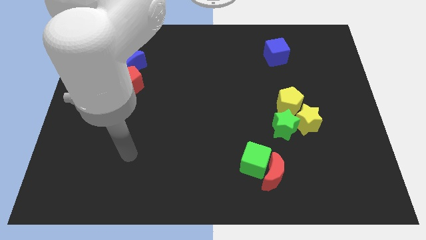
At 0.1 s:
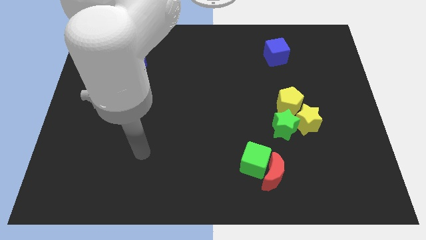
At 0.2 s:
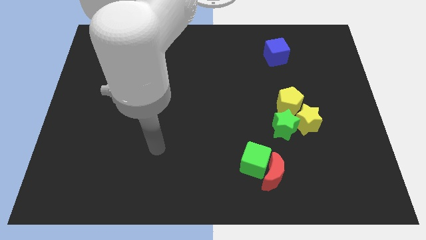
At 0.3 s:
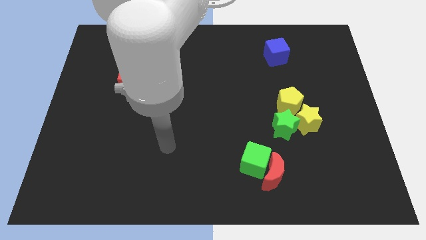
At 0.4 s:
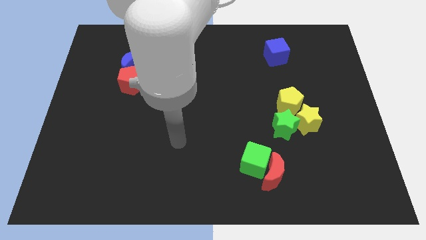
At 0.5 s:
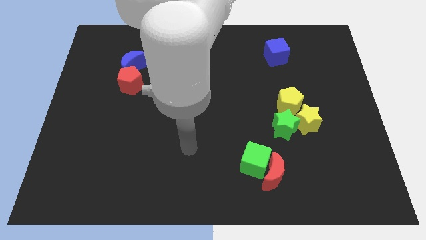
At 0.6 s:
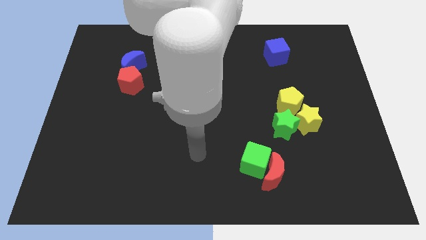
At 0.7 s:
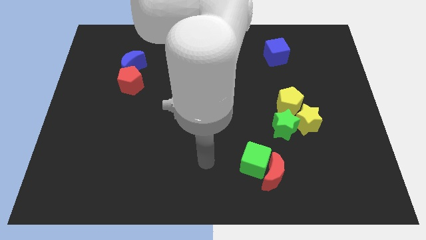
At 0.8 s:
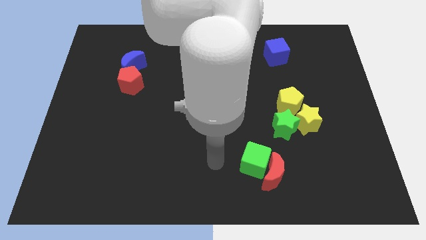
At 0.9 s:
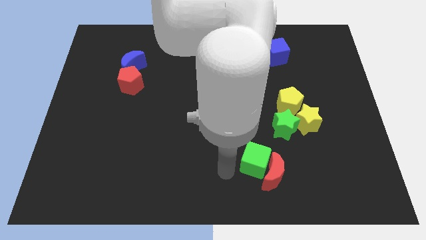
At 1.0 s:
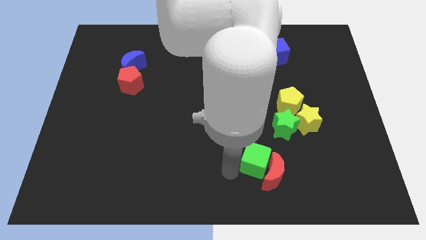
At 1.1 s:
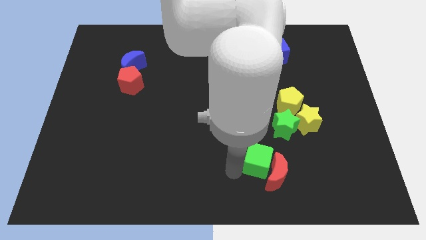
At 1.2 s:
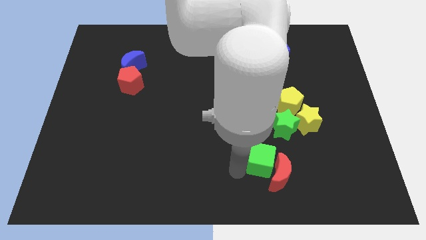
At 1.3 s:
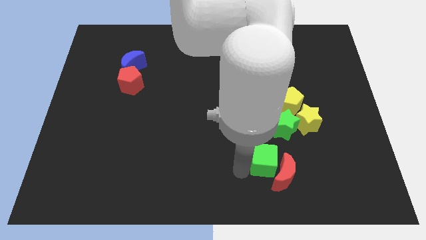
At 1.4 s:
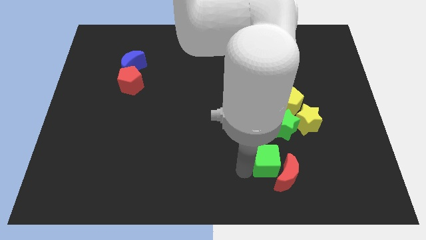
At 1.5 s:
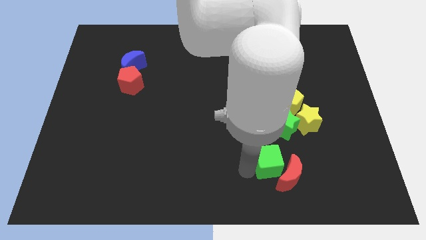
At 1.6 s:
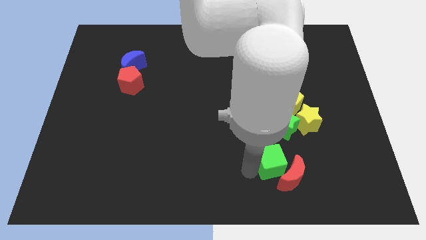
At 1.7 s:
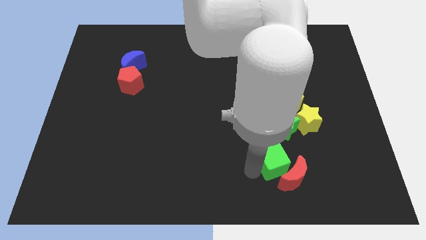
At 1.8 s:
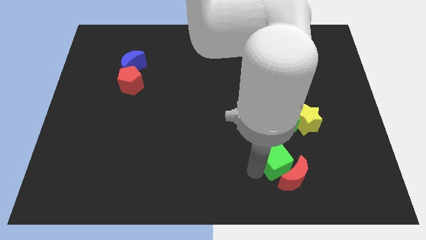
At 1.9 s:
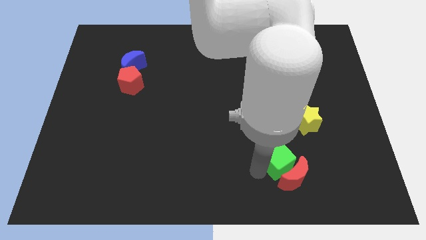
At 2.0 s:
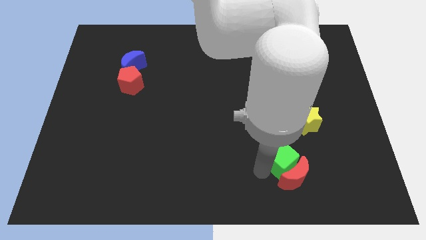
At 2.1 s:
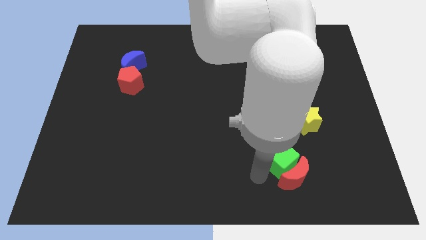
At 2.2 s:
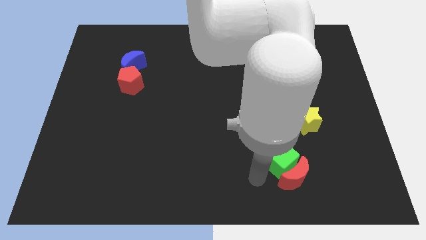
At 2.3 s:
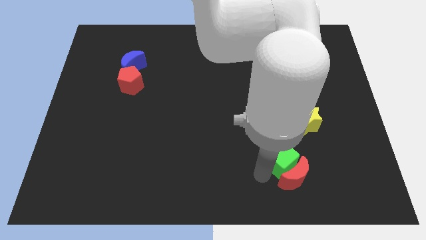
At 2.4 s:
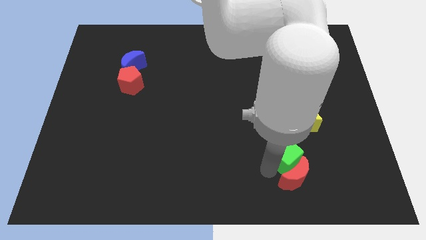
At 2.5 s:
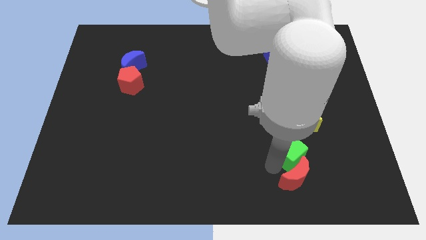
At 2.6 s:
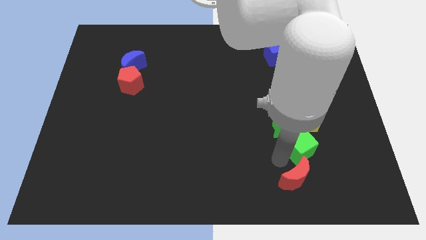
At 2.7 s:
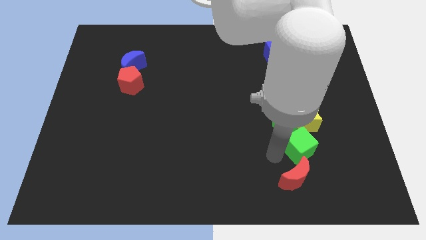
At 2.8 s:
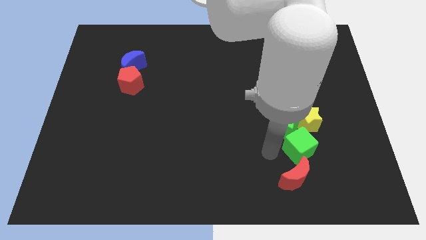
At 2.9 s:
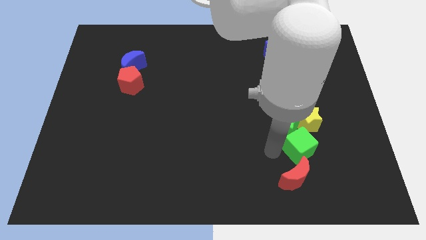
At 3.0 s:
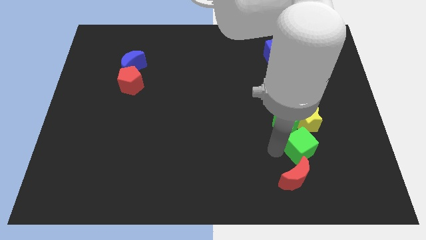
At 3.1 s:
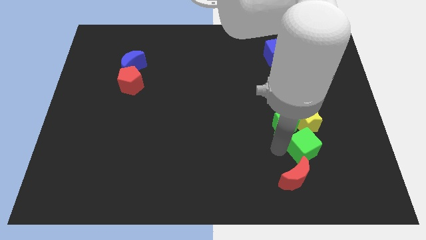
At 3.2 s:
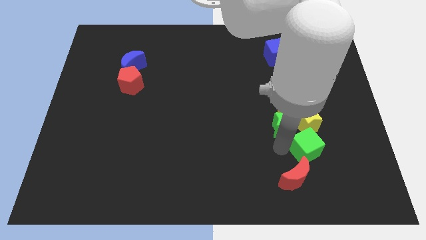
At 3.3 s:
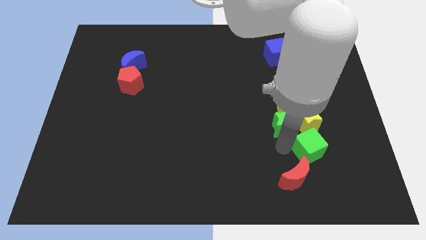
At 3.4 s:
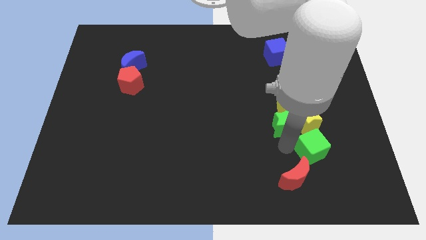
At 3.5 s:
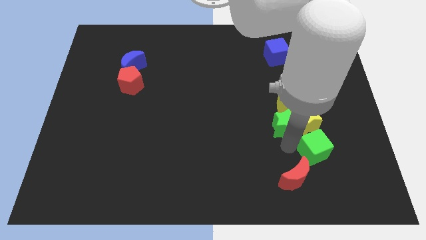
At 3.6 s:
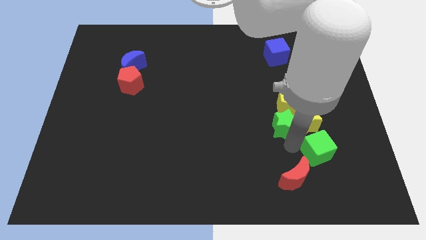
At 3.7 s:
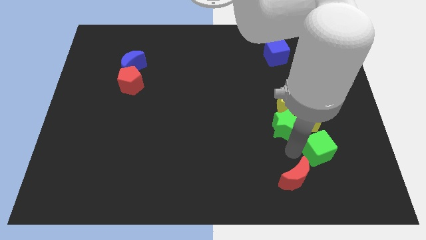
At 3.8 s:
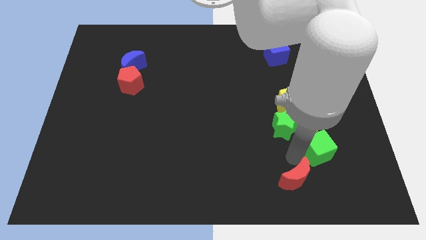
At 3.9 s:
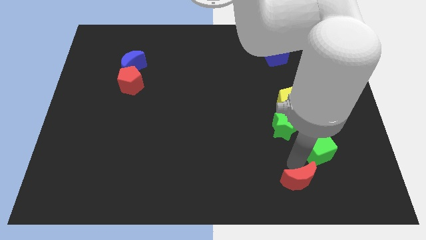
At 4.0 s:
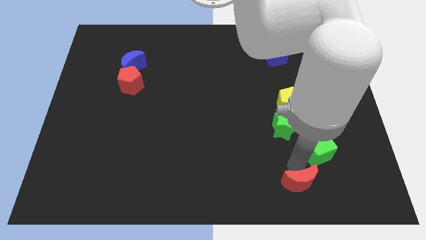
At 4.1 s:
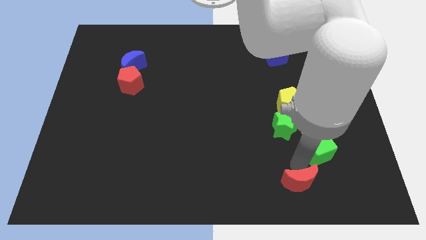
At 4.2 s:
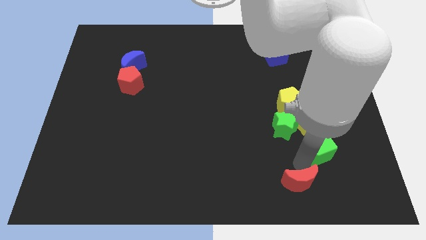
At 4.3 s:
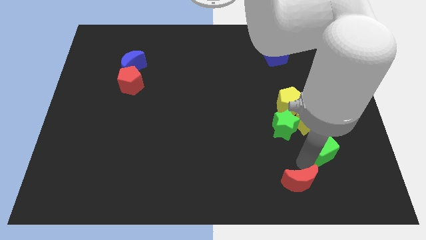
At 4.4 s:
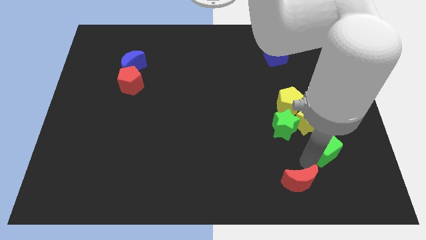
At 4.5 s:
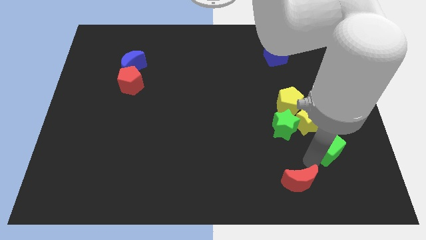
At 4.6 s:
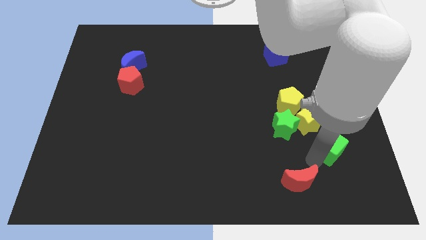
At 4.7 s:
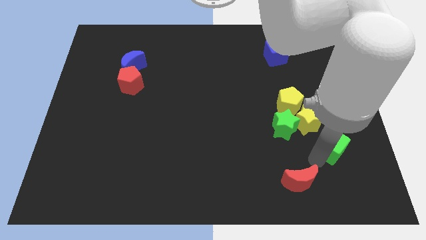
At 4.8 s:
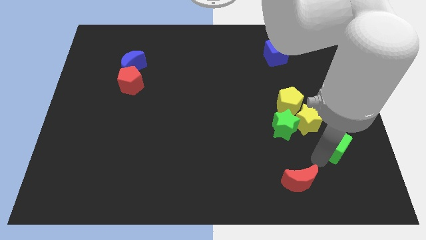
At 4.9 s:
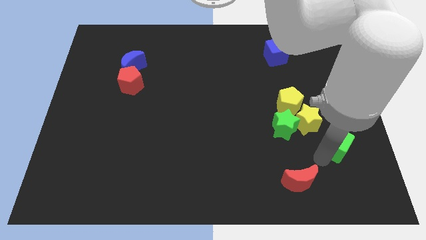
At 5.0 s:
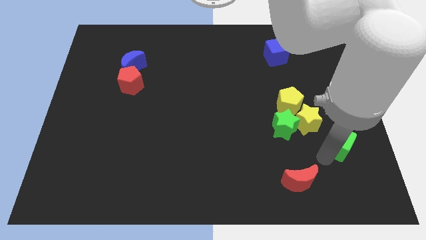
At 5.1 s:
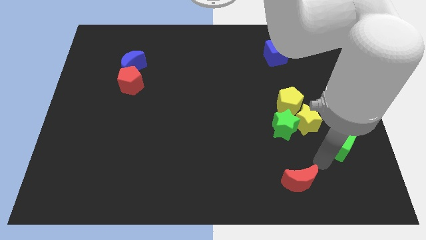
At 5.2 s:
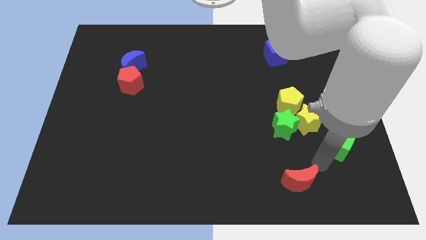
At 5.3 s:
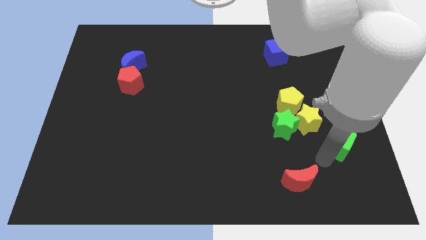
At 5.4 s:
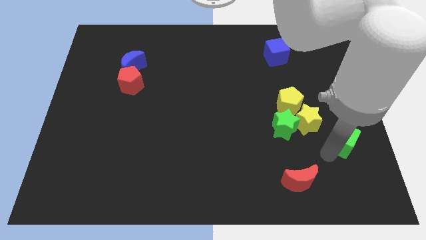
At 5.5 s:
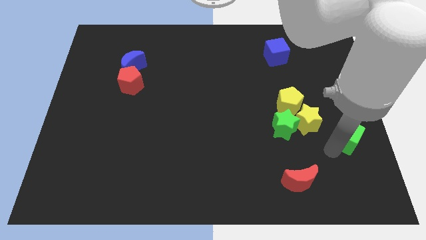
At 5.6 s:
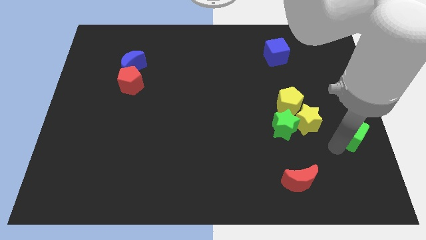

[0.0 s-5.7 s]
put the green cube to the center right

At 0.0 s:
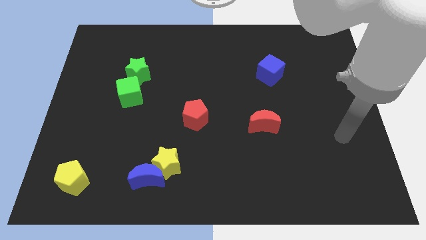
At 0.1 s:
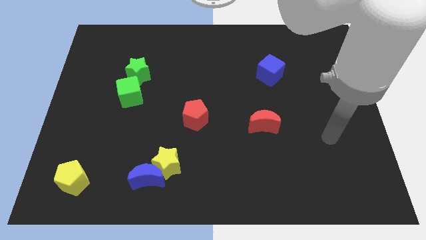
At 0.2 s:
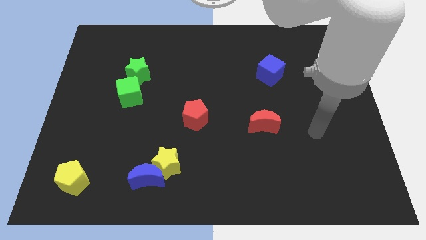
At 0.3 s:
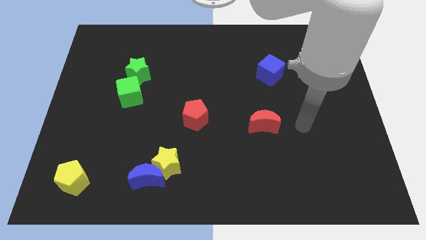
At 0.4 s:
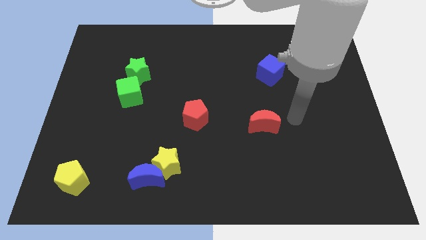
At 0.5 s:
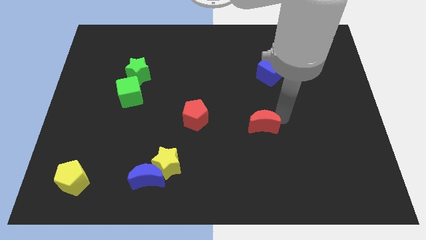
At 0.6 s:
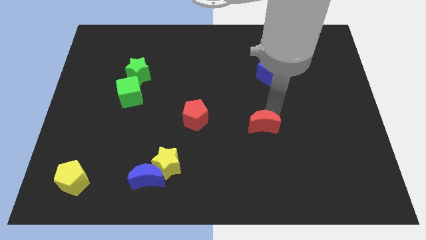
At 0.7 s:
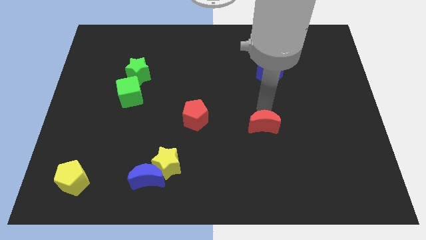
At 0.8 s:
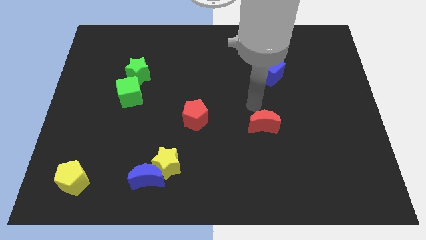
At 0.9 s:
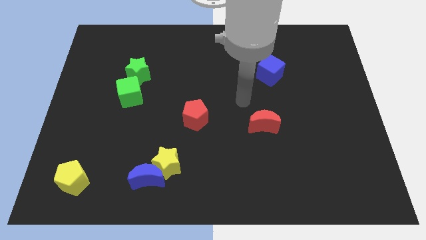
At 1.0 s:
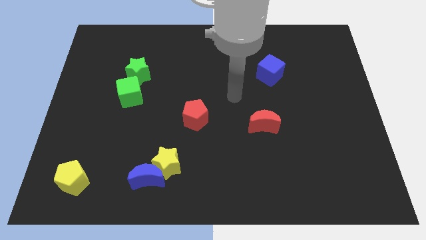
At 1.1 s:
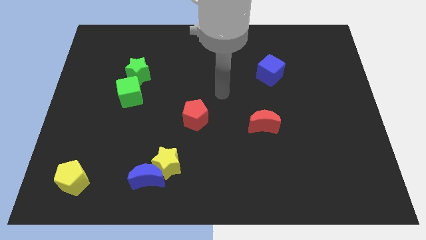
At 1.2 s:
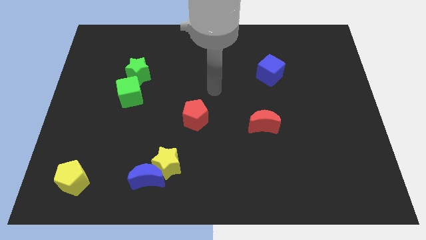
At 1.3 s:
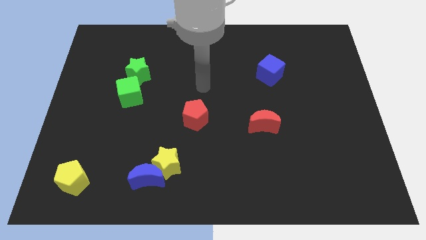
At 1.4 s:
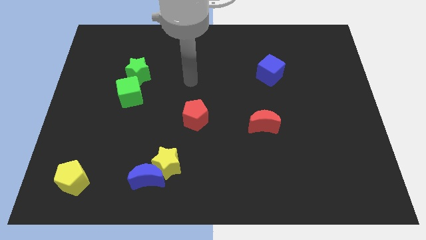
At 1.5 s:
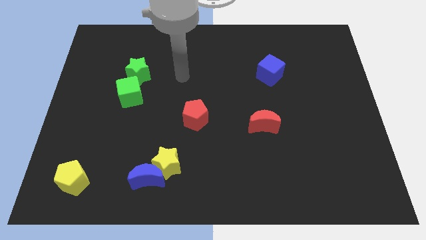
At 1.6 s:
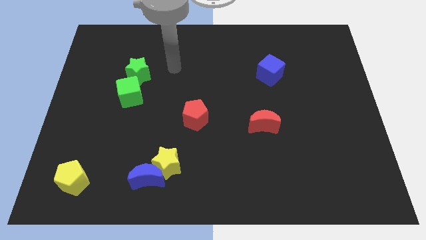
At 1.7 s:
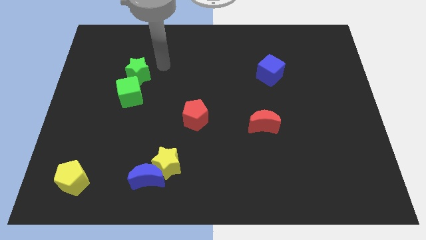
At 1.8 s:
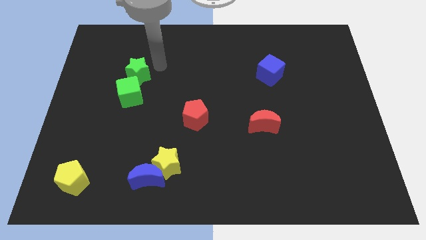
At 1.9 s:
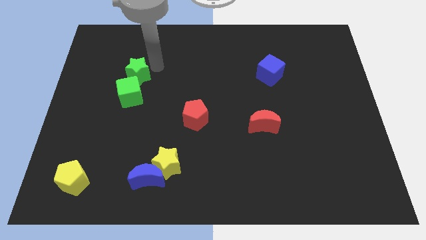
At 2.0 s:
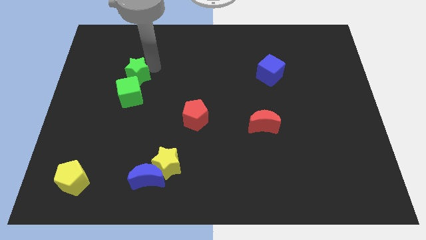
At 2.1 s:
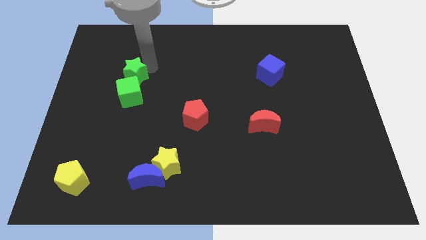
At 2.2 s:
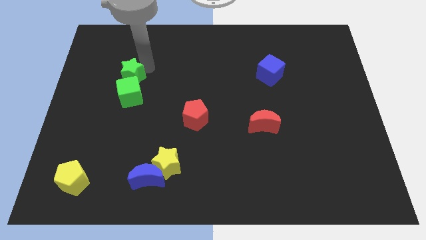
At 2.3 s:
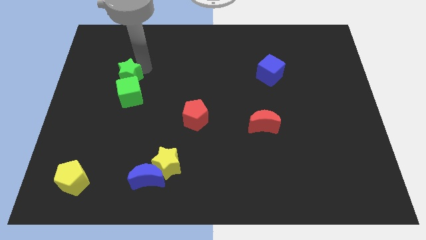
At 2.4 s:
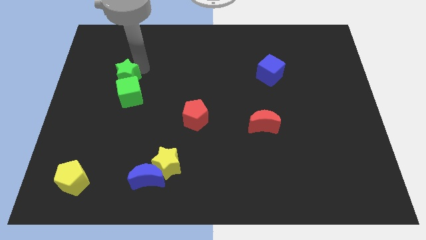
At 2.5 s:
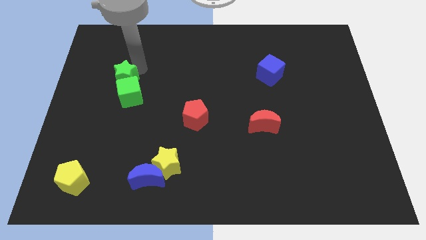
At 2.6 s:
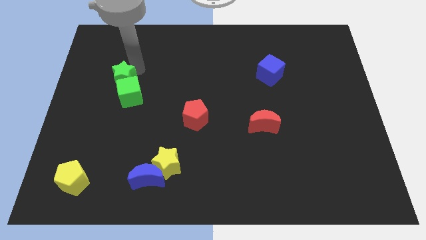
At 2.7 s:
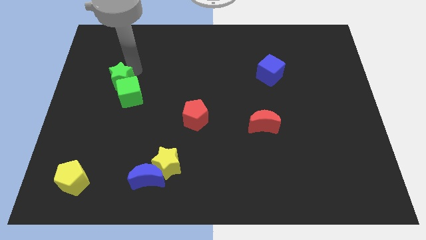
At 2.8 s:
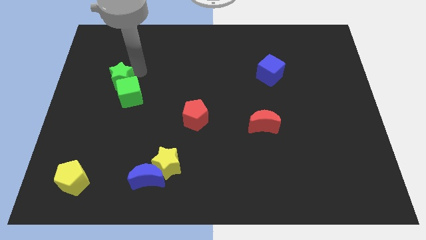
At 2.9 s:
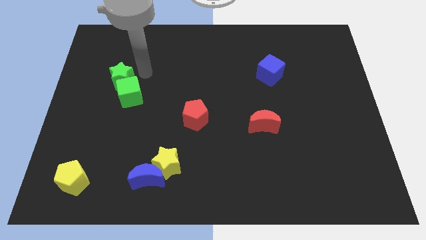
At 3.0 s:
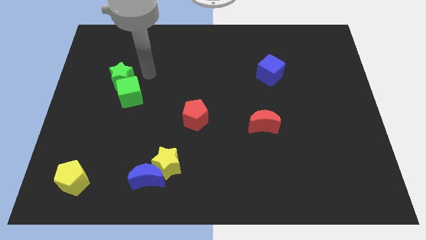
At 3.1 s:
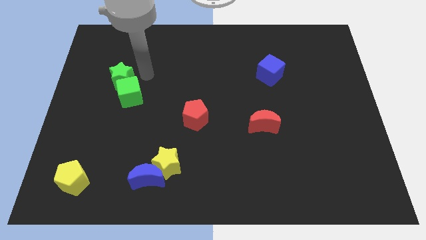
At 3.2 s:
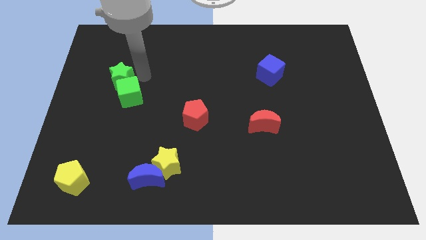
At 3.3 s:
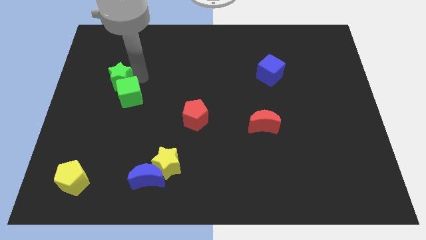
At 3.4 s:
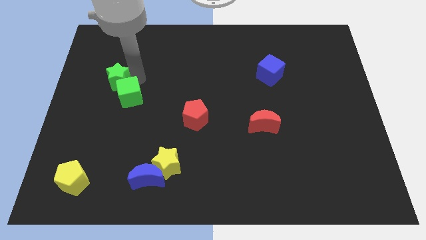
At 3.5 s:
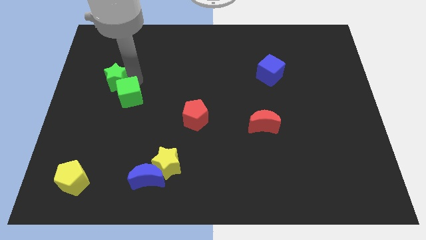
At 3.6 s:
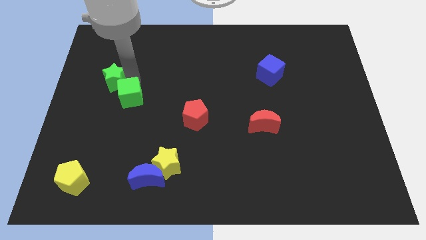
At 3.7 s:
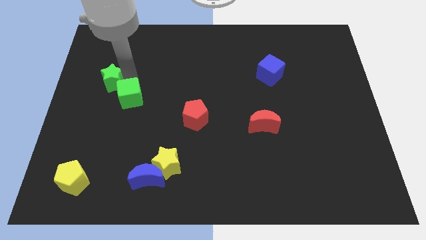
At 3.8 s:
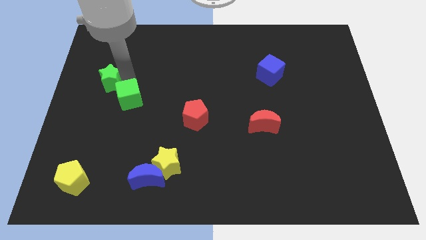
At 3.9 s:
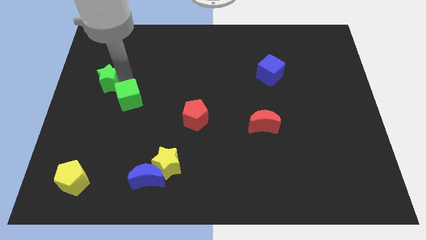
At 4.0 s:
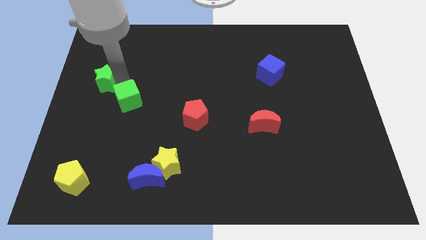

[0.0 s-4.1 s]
put the green star to the left side of the board
